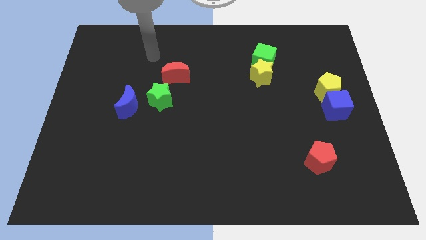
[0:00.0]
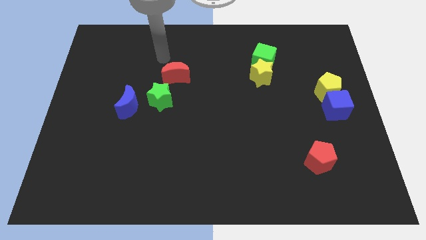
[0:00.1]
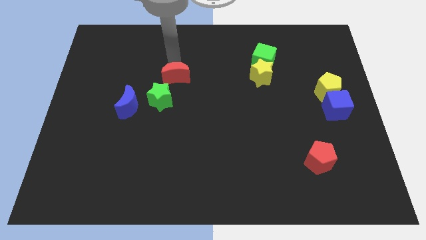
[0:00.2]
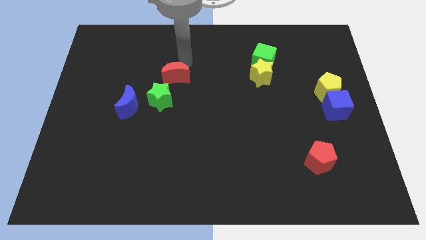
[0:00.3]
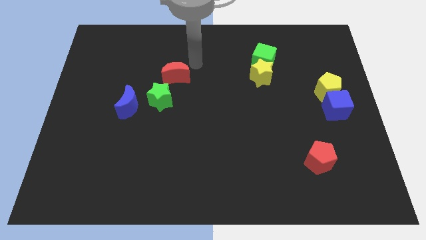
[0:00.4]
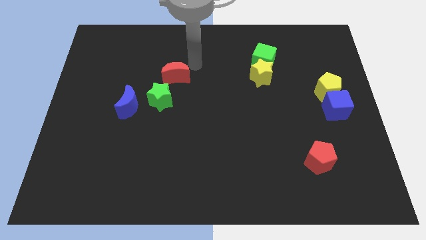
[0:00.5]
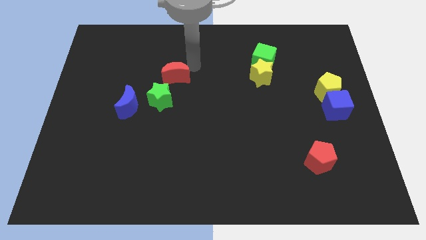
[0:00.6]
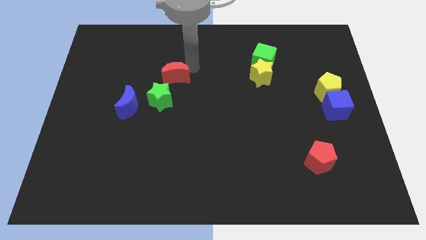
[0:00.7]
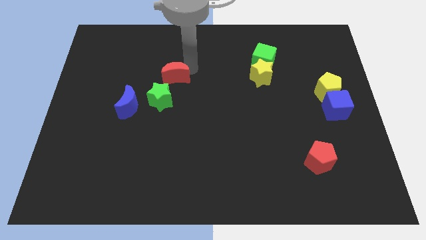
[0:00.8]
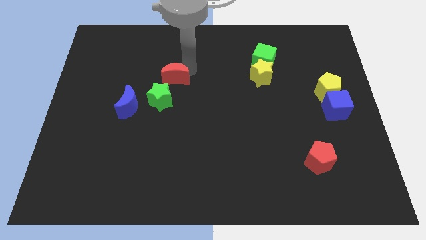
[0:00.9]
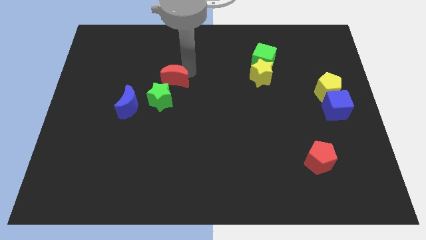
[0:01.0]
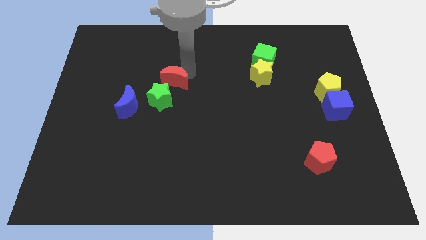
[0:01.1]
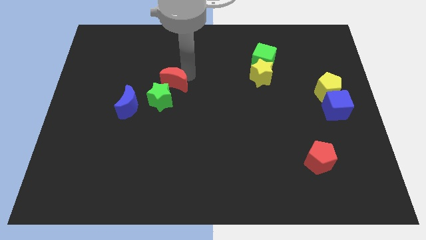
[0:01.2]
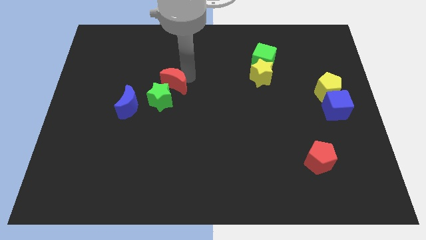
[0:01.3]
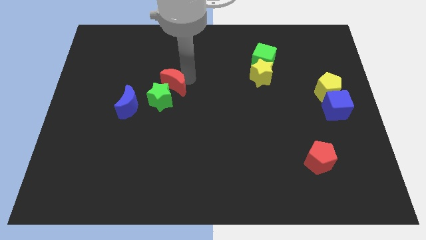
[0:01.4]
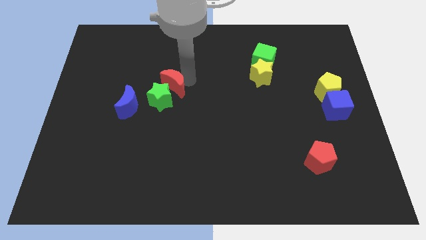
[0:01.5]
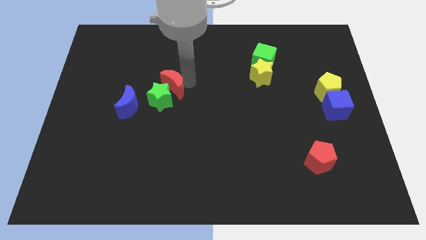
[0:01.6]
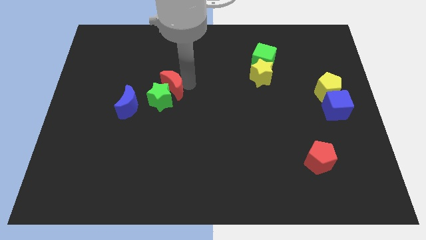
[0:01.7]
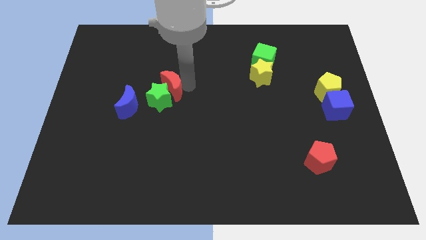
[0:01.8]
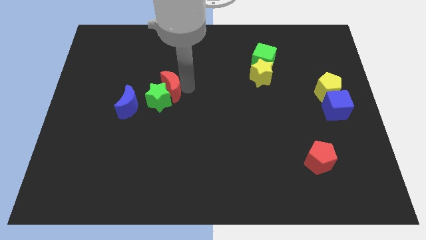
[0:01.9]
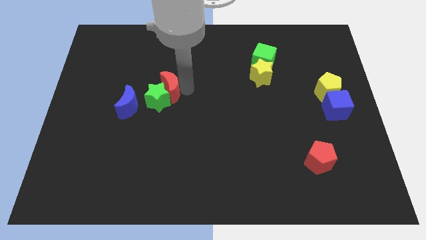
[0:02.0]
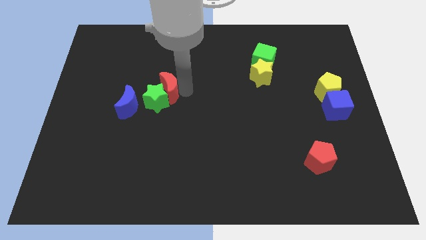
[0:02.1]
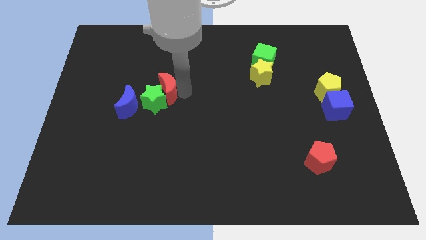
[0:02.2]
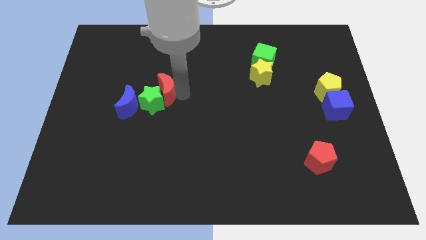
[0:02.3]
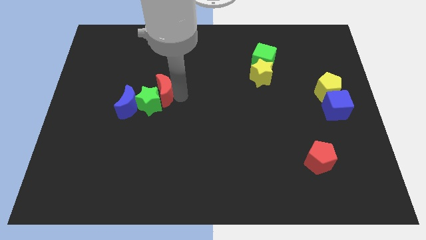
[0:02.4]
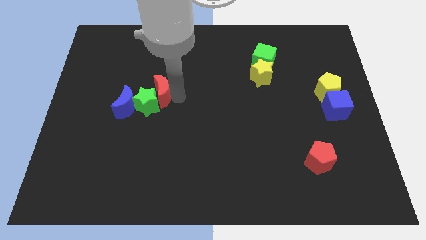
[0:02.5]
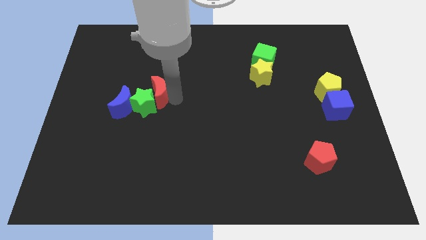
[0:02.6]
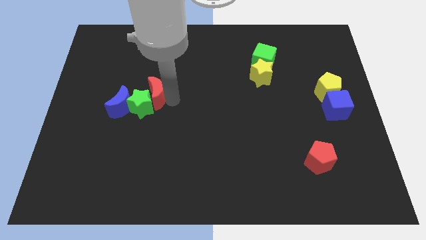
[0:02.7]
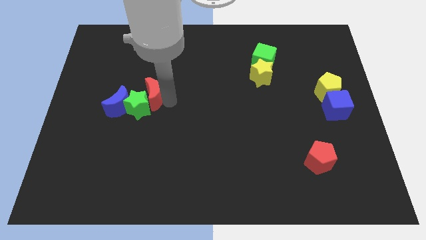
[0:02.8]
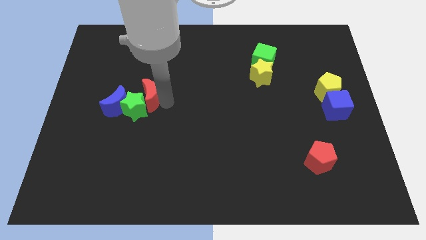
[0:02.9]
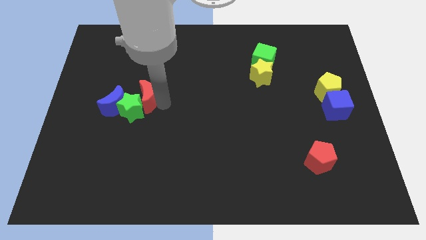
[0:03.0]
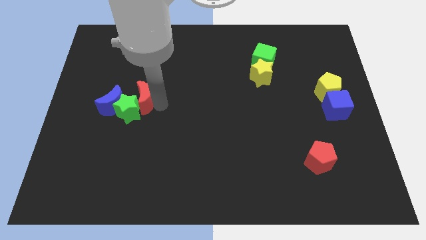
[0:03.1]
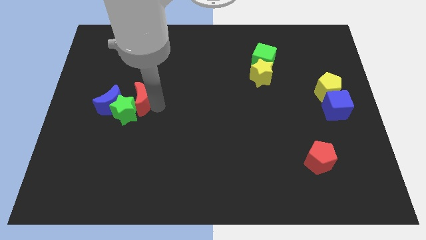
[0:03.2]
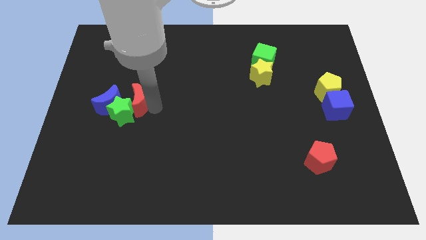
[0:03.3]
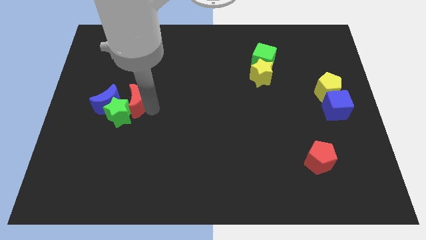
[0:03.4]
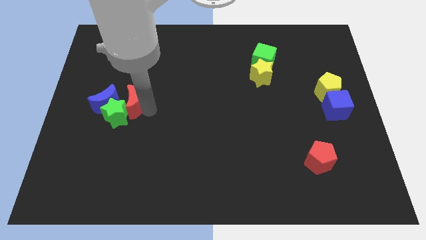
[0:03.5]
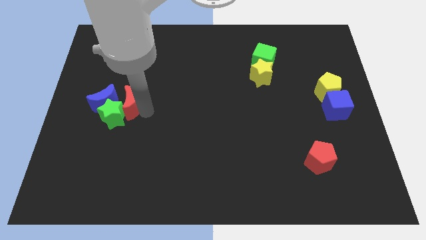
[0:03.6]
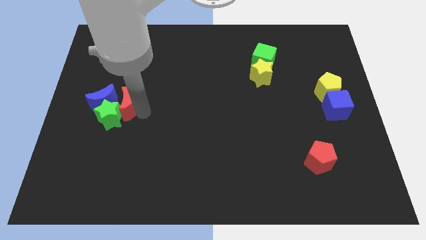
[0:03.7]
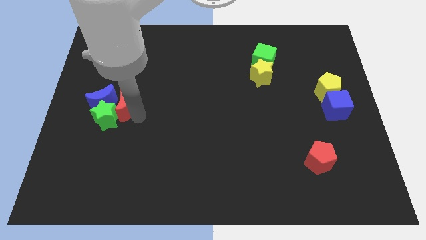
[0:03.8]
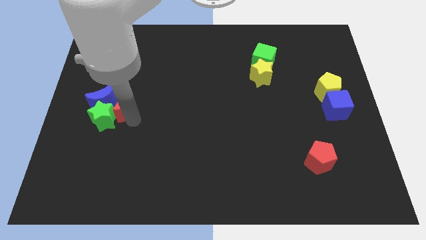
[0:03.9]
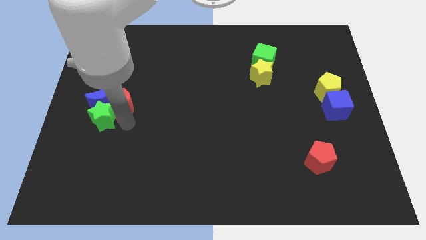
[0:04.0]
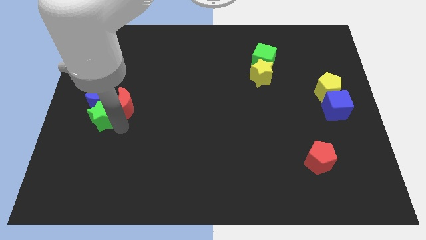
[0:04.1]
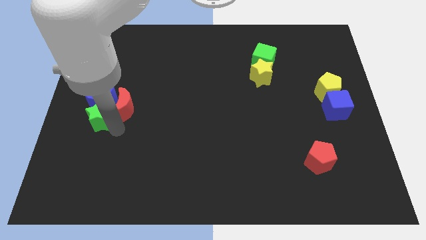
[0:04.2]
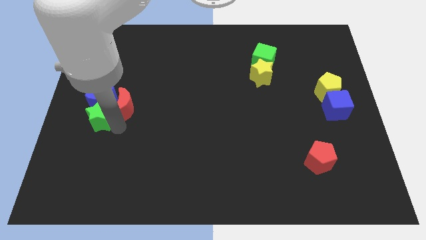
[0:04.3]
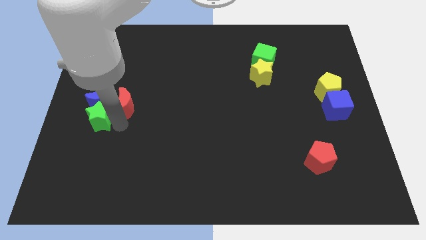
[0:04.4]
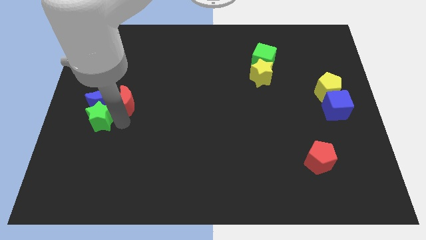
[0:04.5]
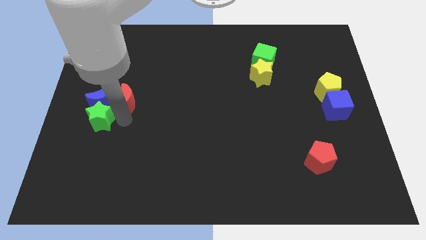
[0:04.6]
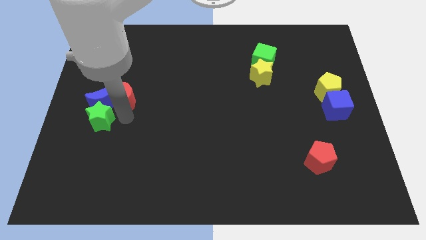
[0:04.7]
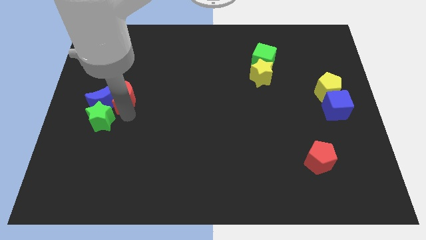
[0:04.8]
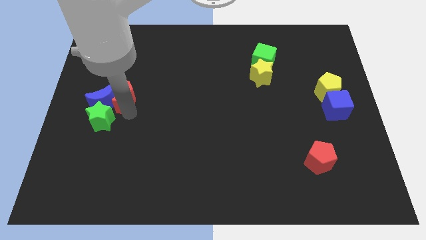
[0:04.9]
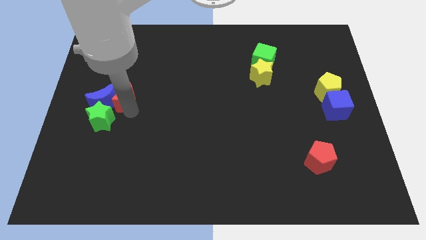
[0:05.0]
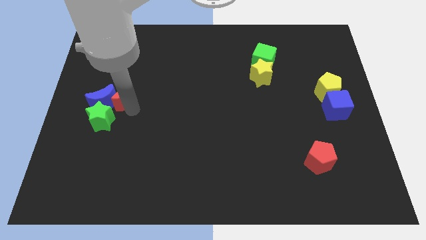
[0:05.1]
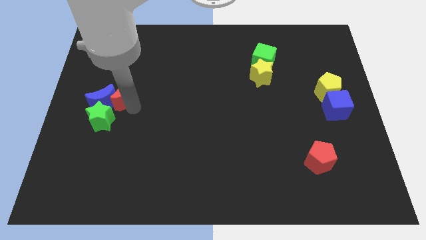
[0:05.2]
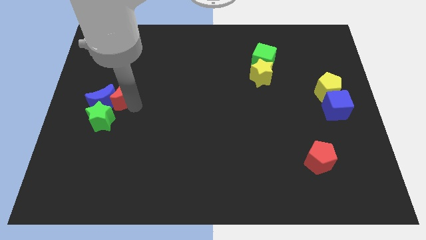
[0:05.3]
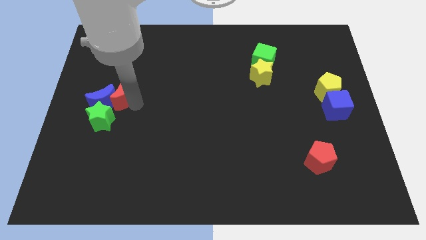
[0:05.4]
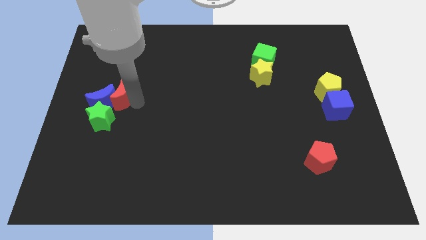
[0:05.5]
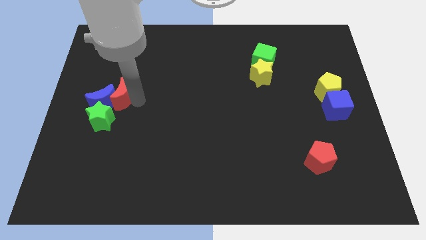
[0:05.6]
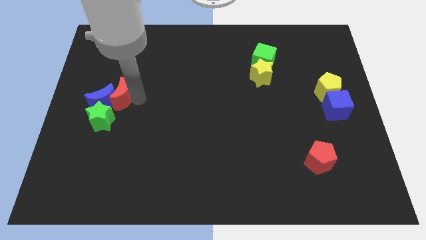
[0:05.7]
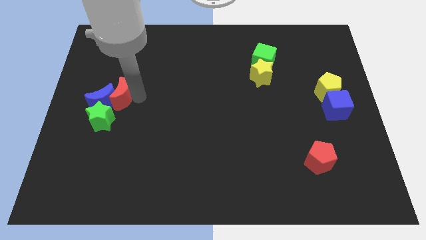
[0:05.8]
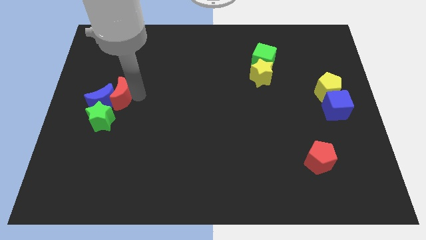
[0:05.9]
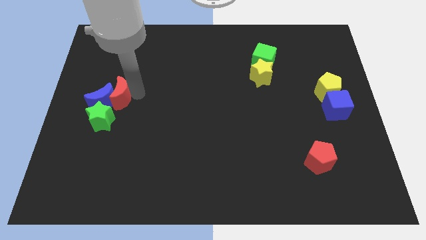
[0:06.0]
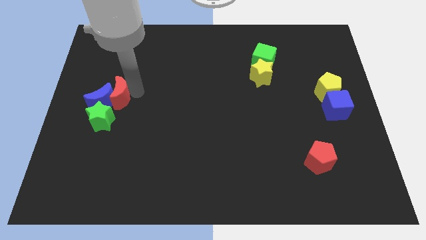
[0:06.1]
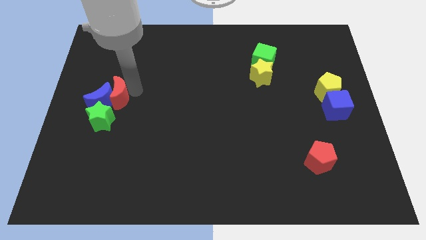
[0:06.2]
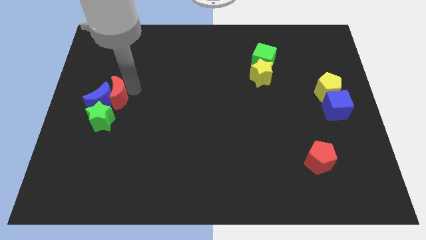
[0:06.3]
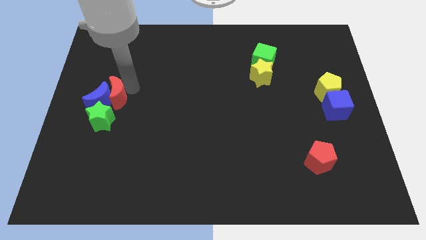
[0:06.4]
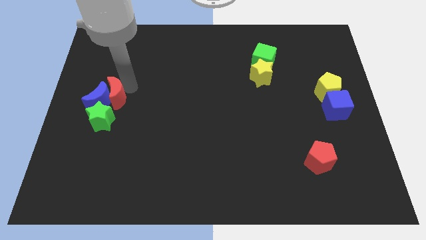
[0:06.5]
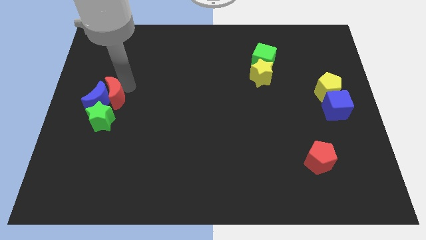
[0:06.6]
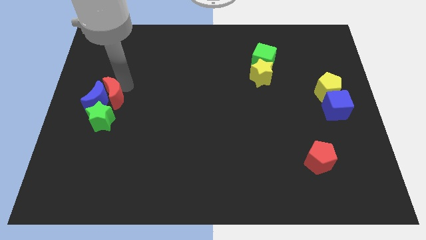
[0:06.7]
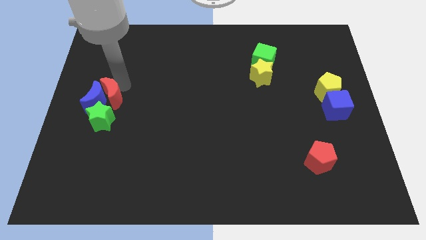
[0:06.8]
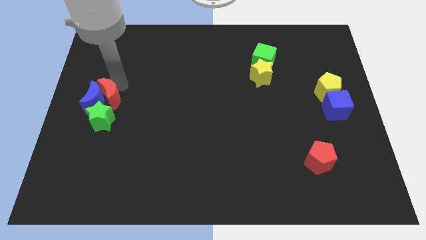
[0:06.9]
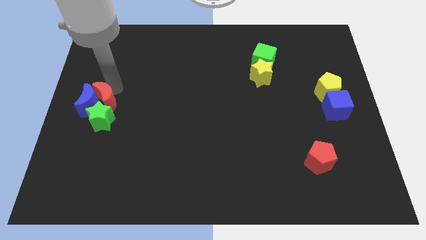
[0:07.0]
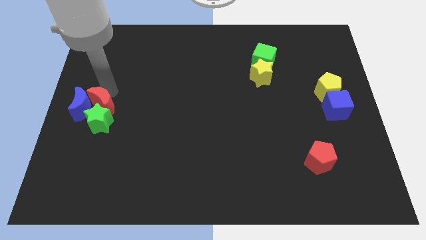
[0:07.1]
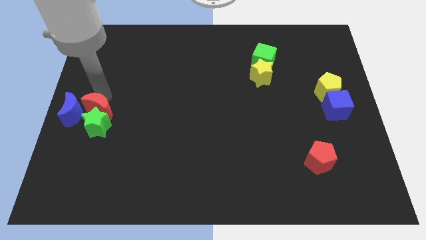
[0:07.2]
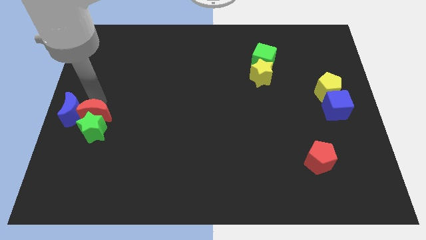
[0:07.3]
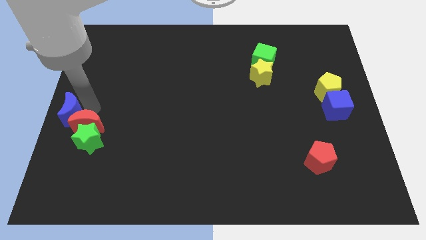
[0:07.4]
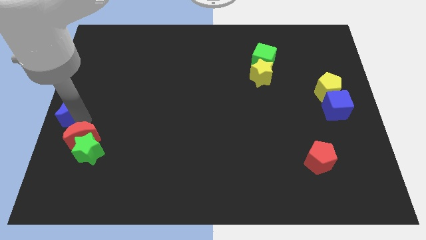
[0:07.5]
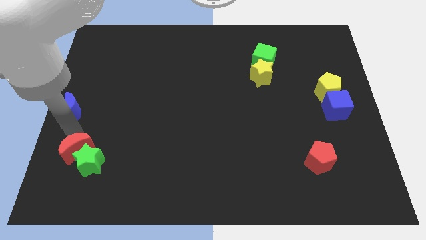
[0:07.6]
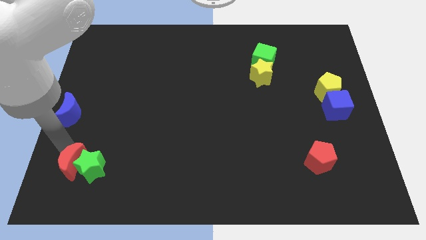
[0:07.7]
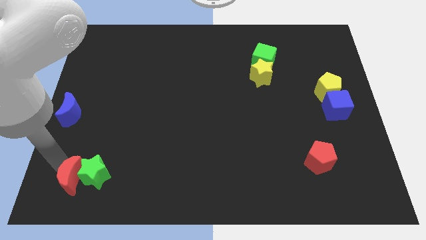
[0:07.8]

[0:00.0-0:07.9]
slide the red moon to the bottom left
